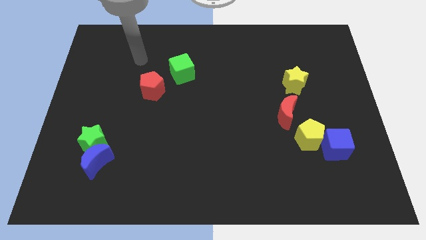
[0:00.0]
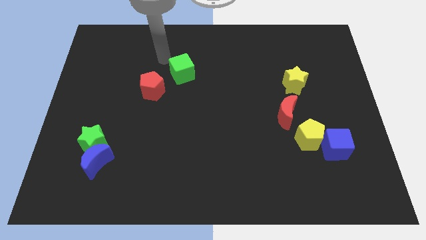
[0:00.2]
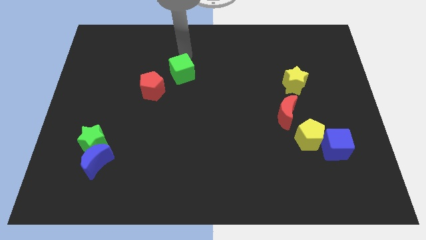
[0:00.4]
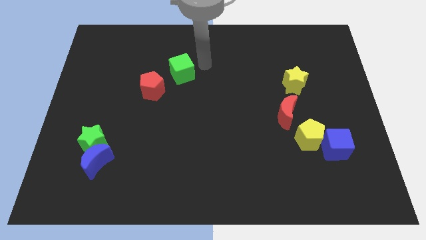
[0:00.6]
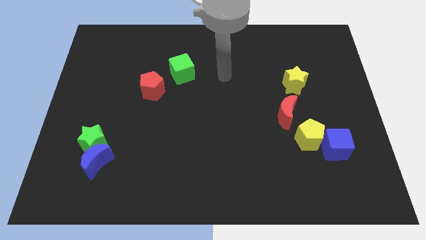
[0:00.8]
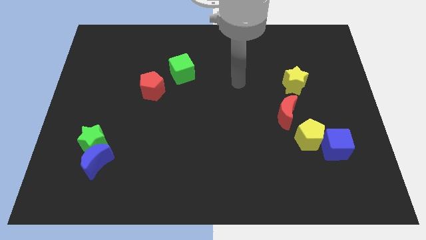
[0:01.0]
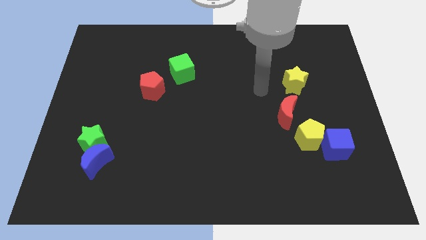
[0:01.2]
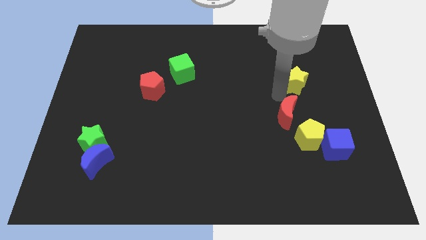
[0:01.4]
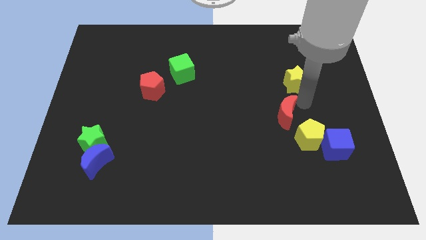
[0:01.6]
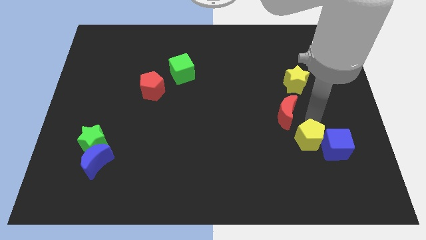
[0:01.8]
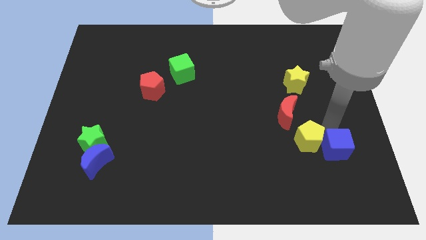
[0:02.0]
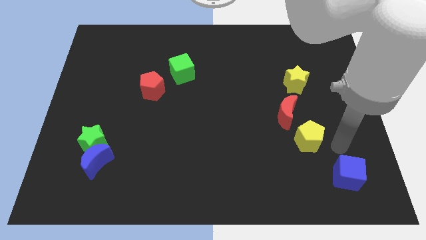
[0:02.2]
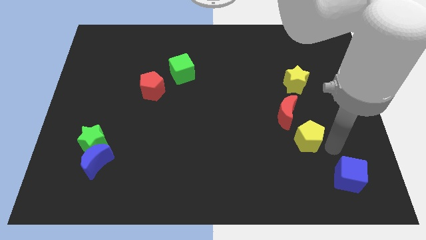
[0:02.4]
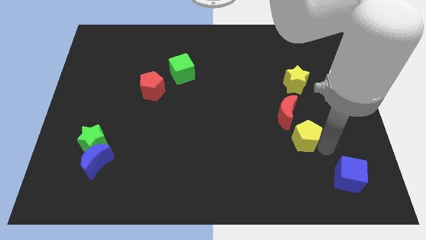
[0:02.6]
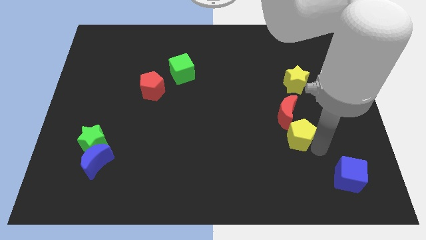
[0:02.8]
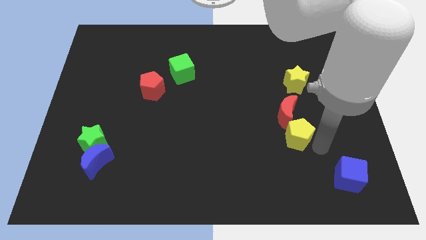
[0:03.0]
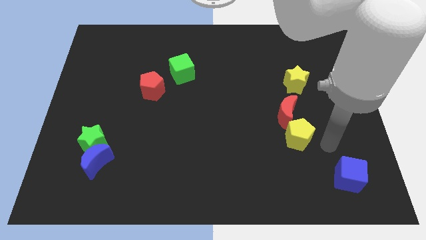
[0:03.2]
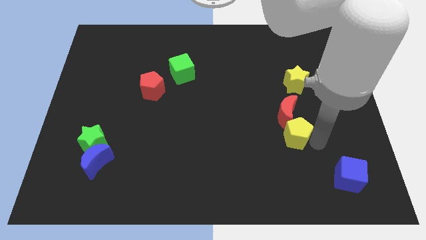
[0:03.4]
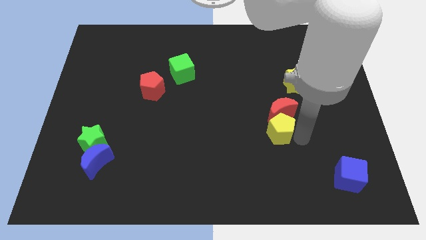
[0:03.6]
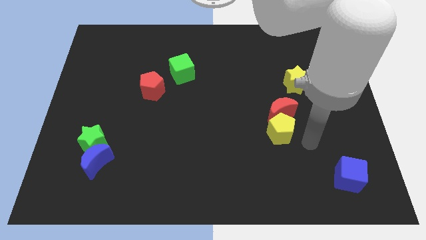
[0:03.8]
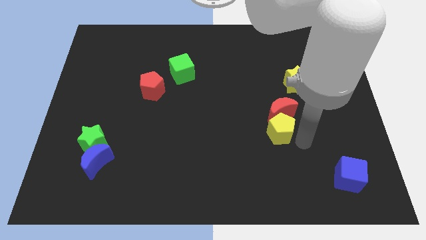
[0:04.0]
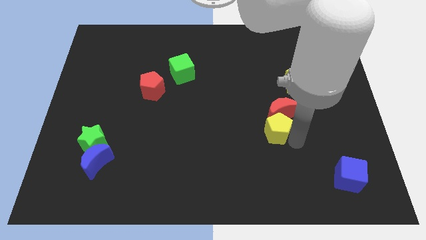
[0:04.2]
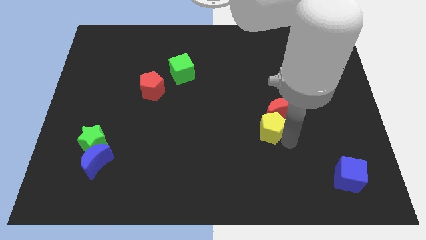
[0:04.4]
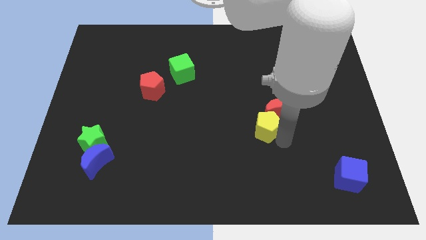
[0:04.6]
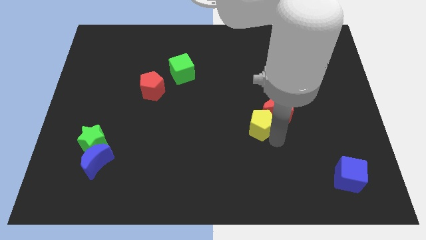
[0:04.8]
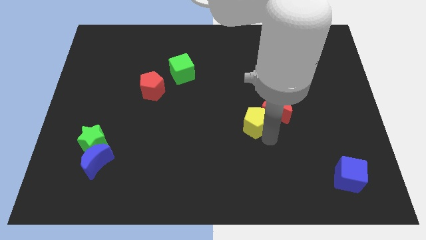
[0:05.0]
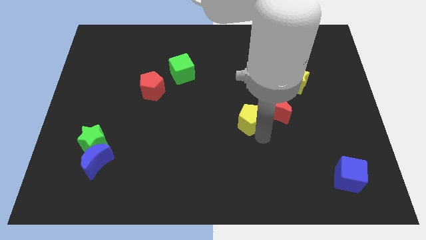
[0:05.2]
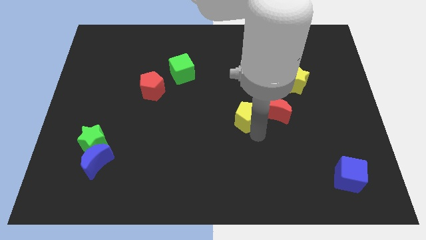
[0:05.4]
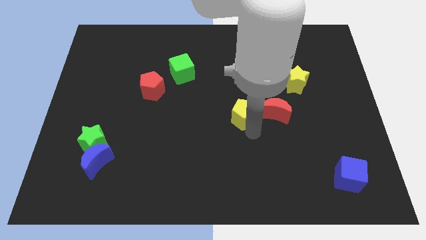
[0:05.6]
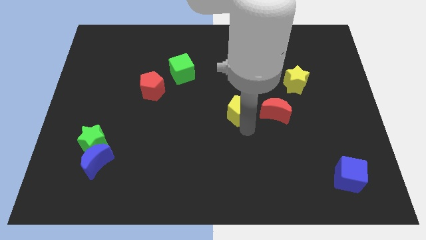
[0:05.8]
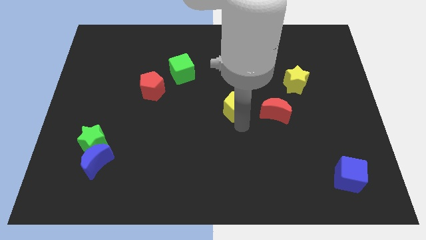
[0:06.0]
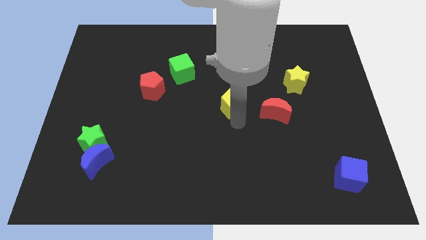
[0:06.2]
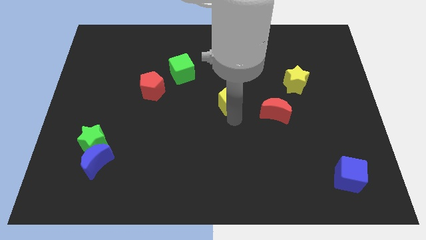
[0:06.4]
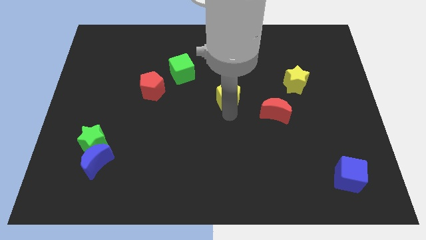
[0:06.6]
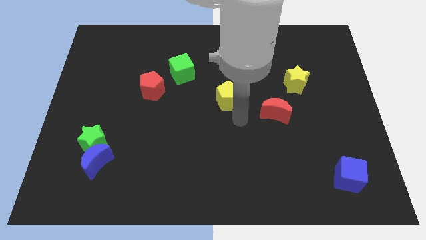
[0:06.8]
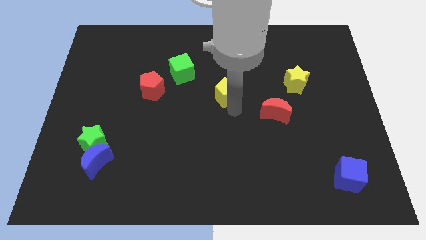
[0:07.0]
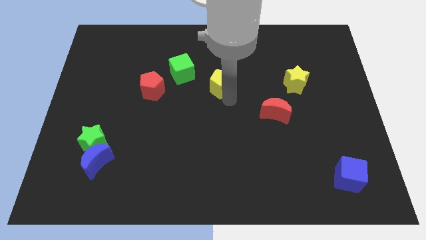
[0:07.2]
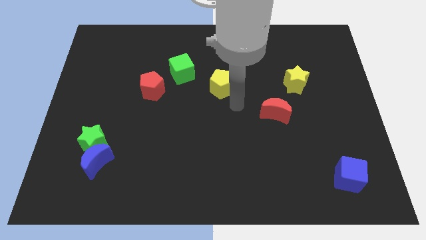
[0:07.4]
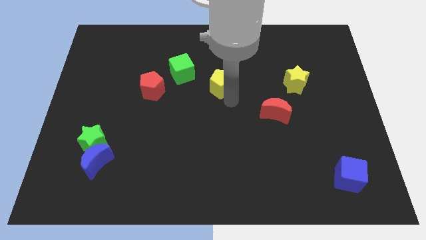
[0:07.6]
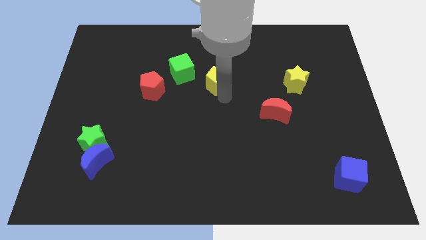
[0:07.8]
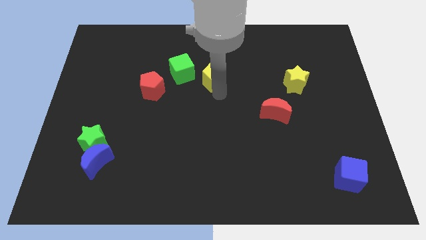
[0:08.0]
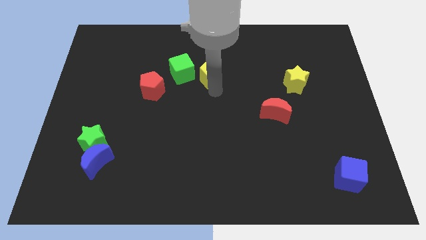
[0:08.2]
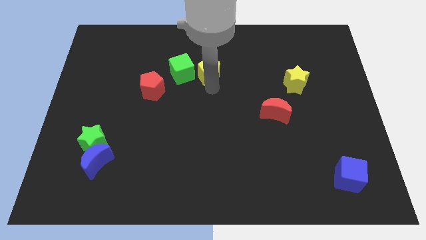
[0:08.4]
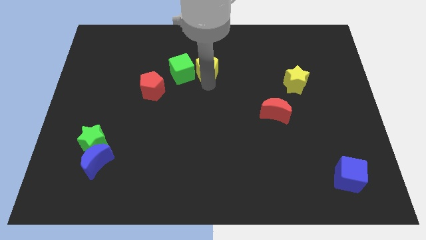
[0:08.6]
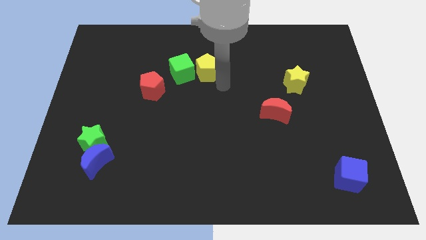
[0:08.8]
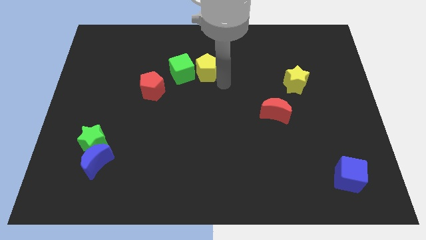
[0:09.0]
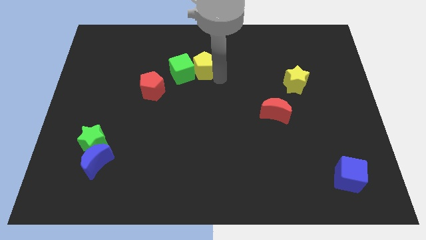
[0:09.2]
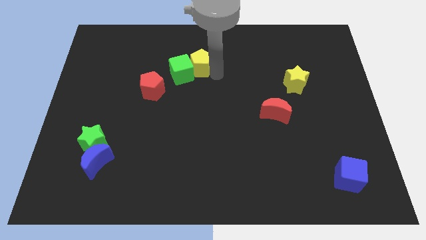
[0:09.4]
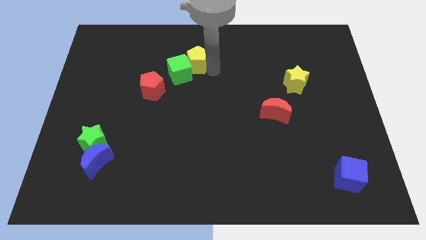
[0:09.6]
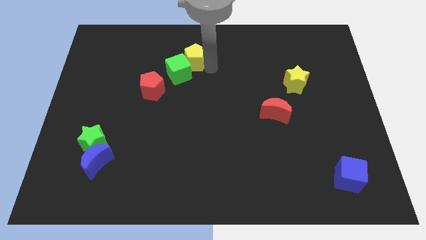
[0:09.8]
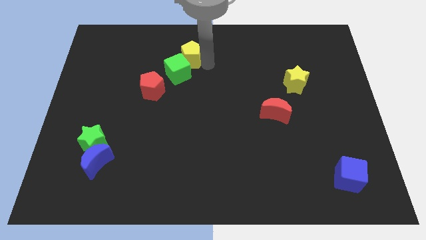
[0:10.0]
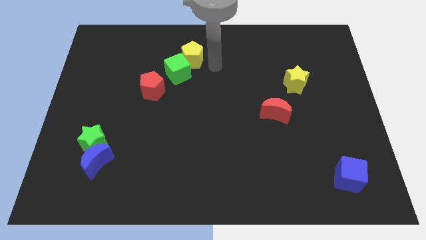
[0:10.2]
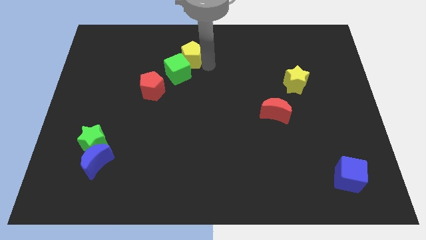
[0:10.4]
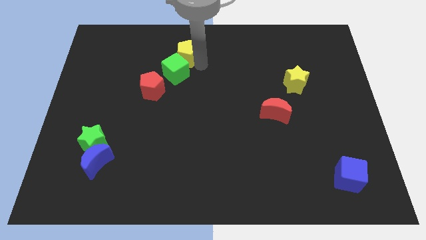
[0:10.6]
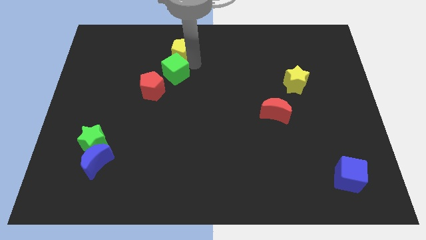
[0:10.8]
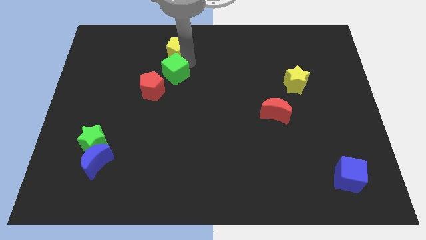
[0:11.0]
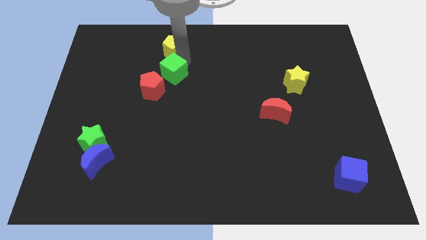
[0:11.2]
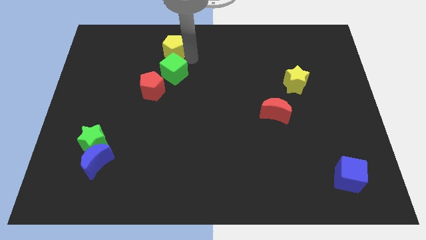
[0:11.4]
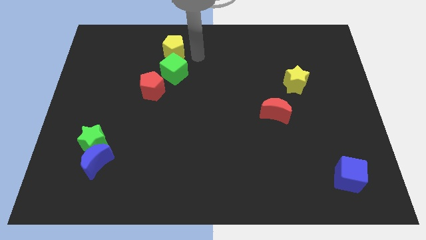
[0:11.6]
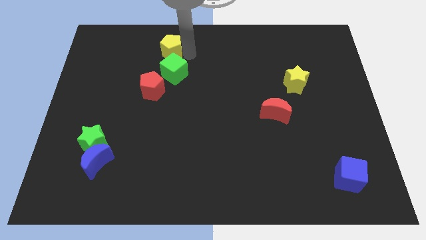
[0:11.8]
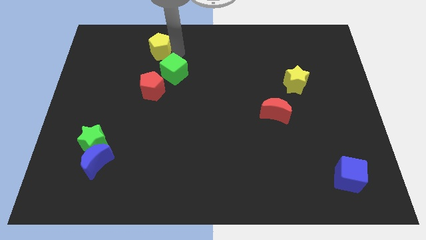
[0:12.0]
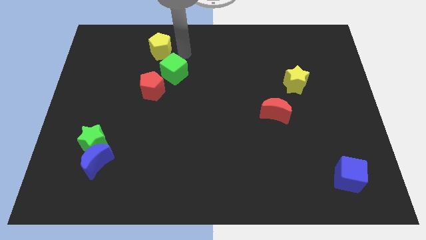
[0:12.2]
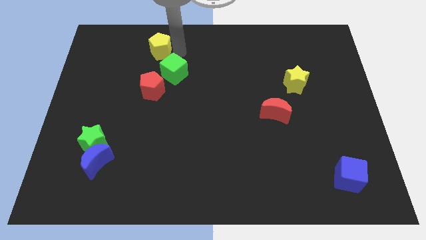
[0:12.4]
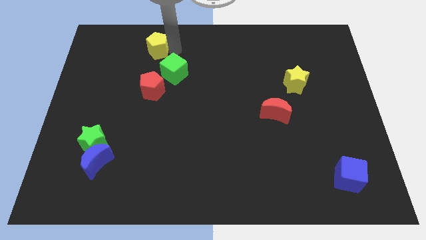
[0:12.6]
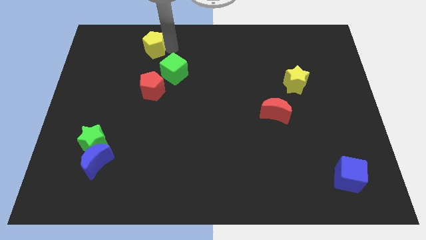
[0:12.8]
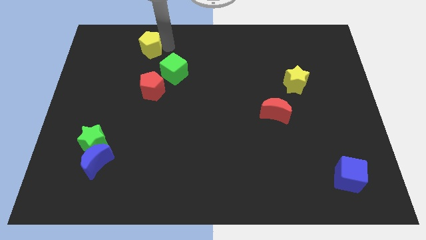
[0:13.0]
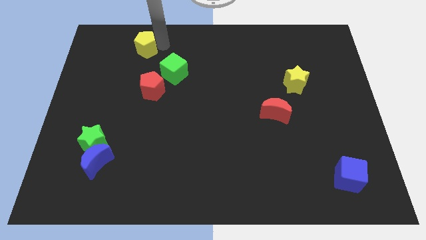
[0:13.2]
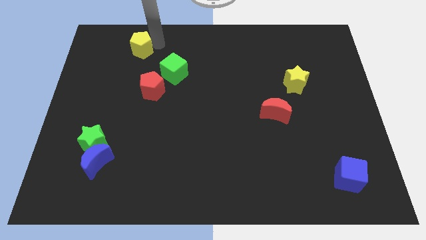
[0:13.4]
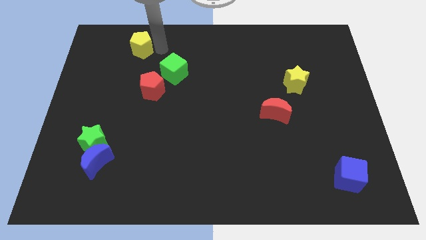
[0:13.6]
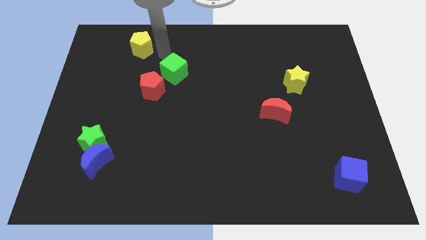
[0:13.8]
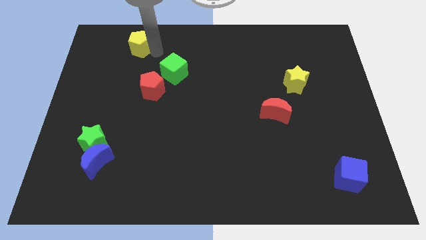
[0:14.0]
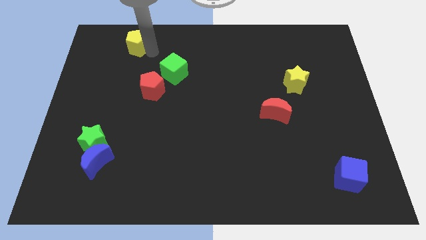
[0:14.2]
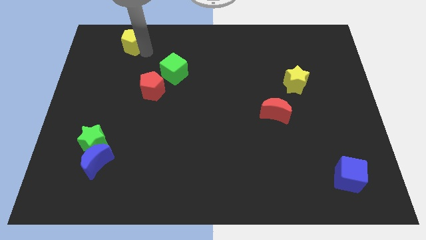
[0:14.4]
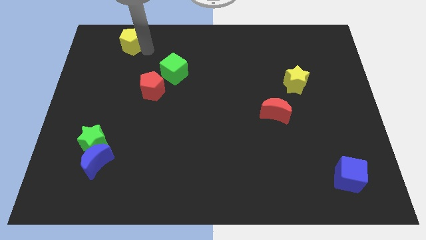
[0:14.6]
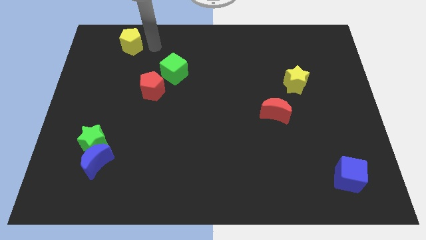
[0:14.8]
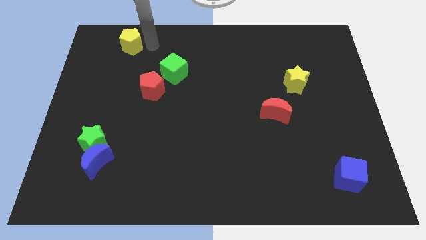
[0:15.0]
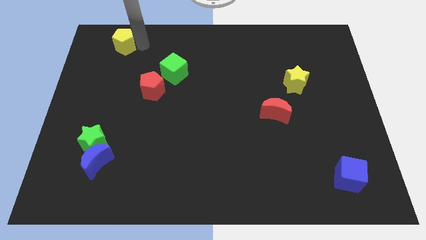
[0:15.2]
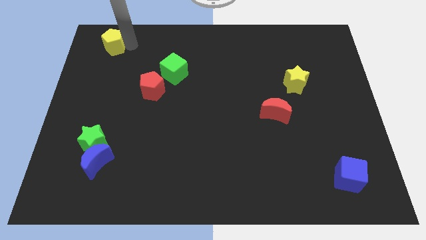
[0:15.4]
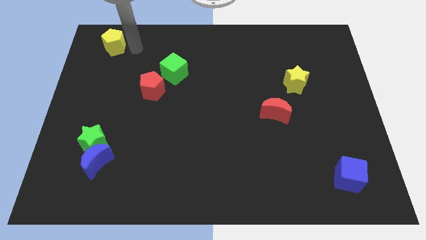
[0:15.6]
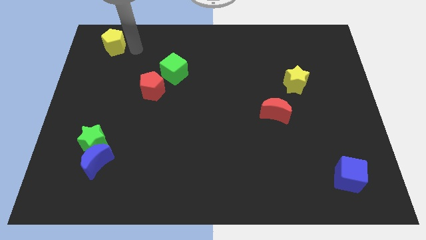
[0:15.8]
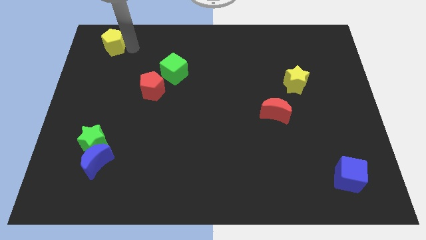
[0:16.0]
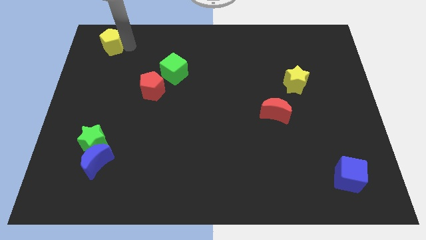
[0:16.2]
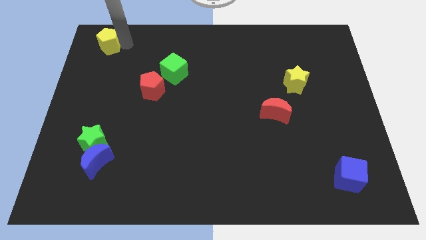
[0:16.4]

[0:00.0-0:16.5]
put the yellow pentagon to the top left
